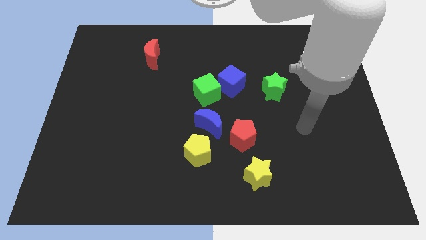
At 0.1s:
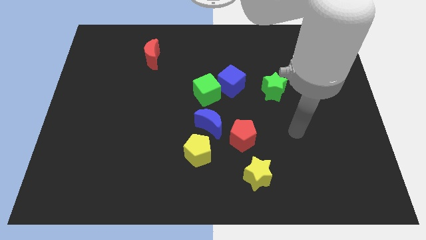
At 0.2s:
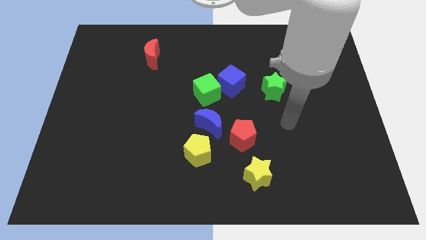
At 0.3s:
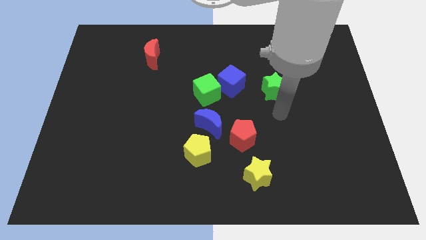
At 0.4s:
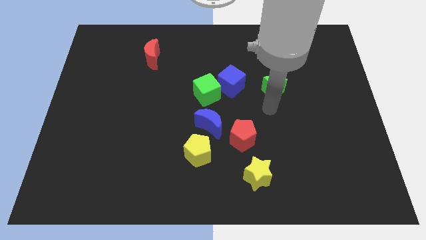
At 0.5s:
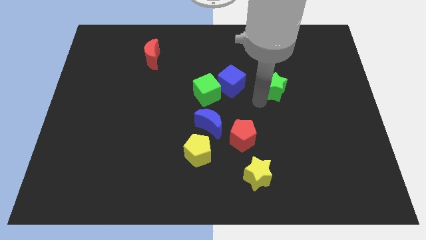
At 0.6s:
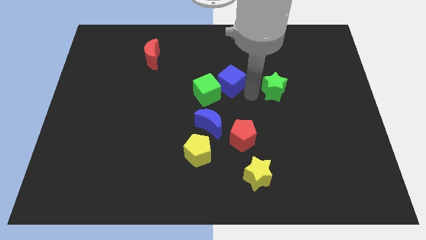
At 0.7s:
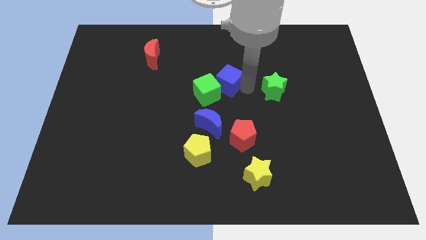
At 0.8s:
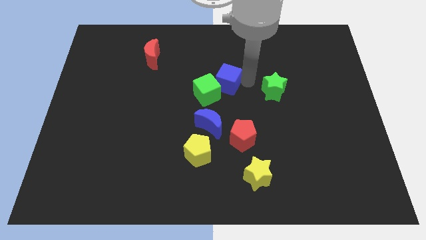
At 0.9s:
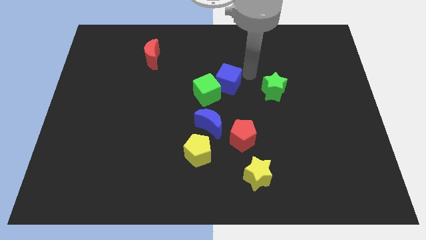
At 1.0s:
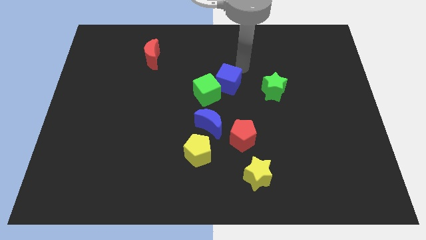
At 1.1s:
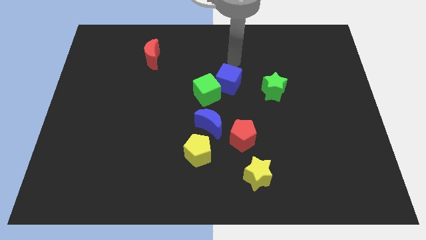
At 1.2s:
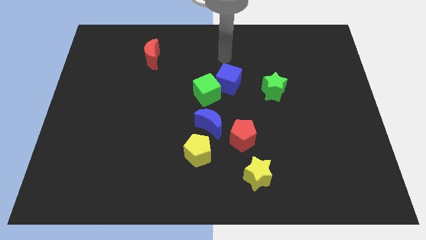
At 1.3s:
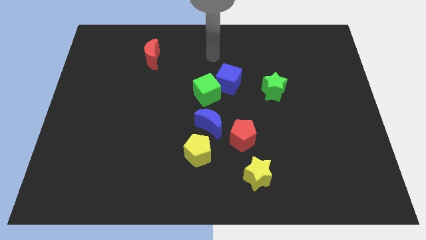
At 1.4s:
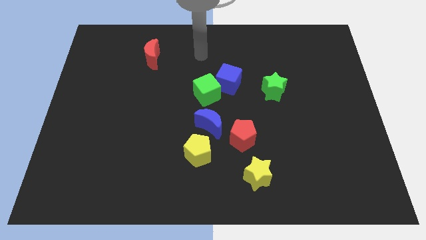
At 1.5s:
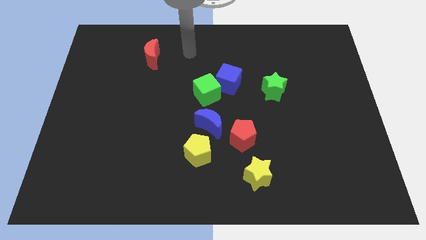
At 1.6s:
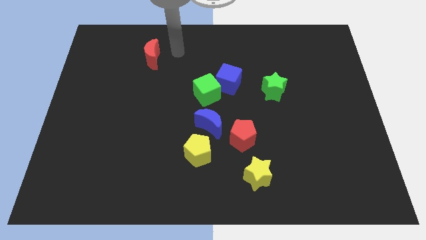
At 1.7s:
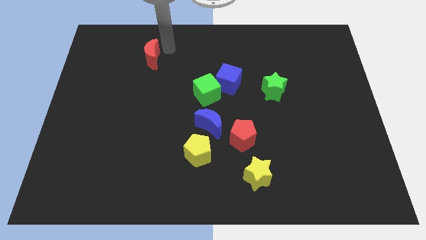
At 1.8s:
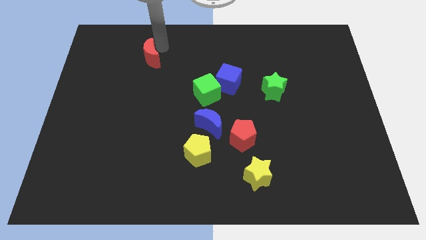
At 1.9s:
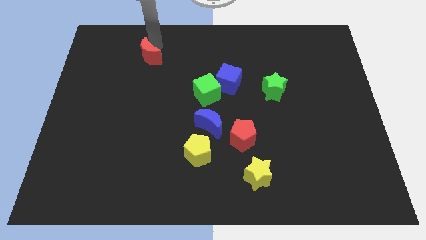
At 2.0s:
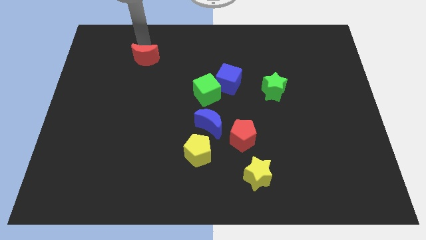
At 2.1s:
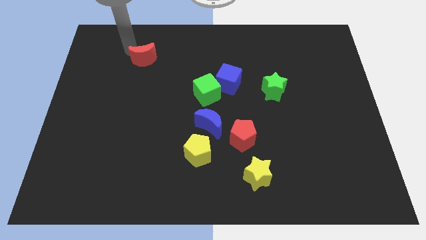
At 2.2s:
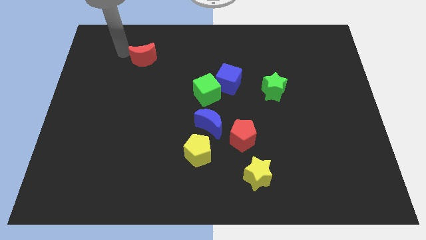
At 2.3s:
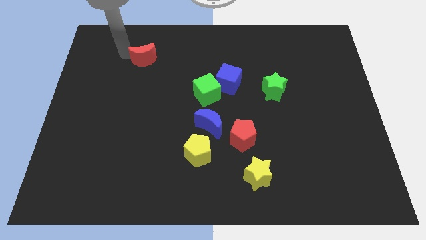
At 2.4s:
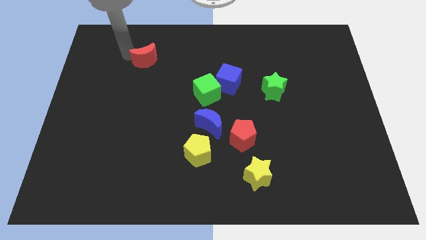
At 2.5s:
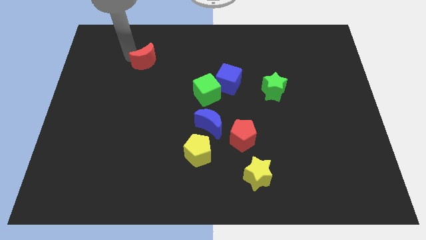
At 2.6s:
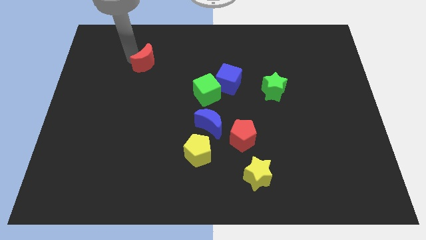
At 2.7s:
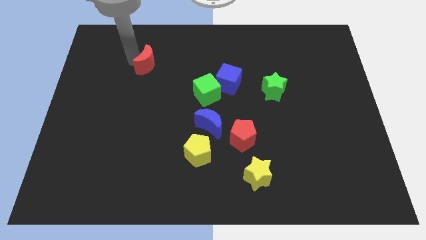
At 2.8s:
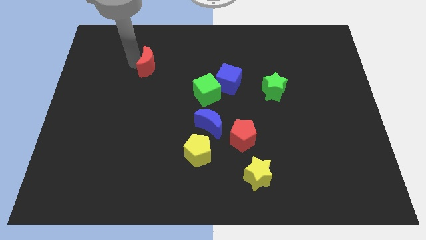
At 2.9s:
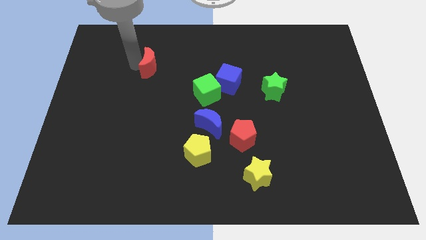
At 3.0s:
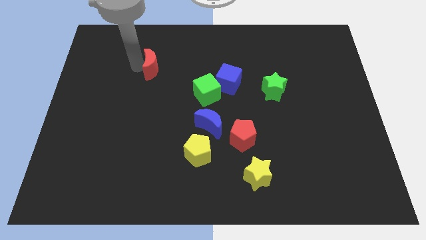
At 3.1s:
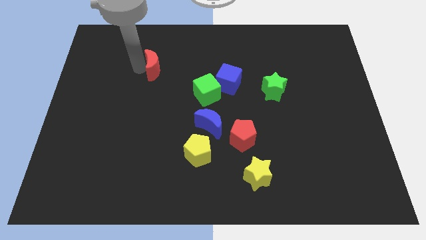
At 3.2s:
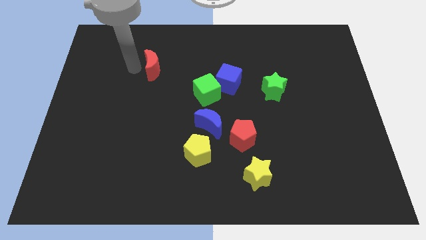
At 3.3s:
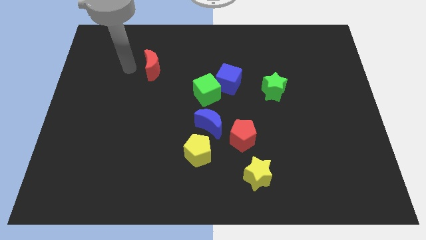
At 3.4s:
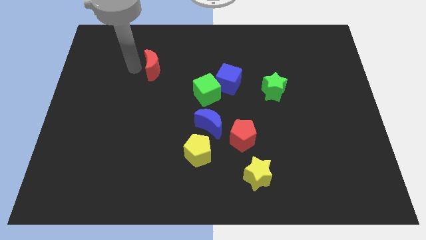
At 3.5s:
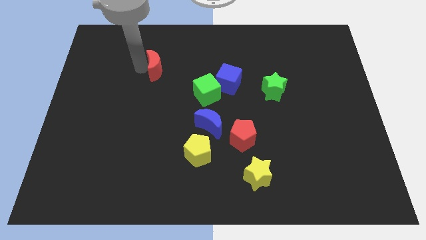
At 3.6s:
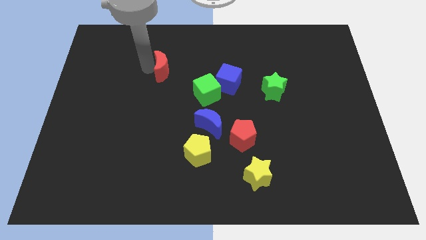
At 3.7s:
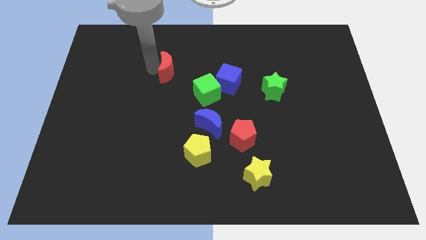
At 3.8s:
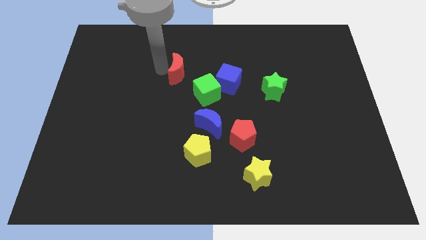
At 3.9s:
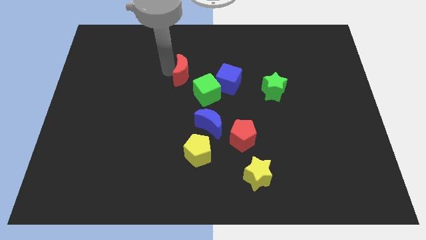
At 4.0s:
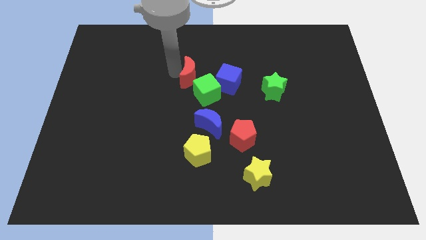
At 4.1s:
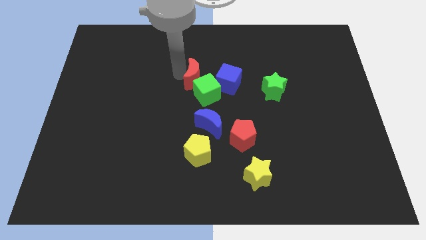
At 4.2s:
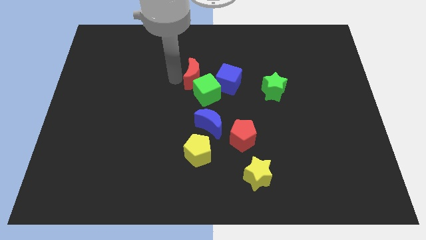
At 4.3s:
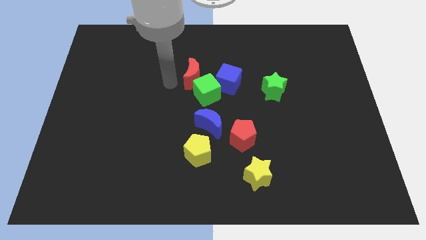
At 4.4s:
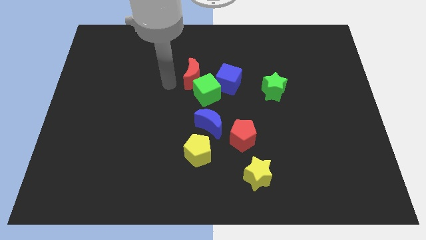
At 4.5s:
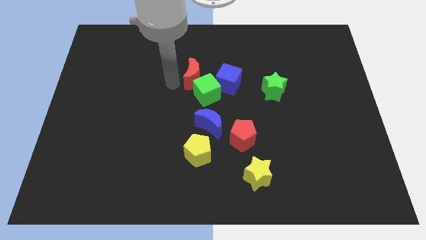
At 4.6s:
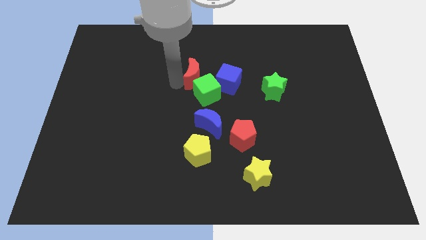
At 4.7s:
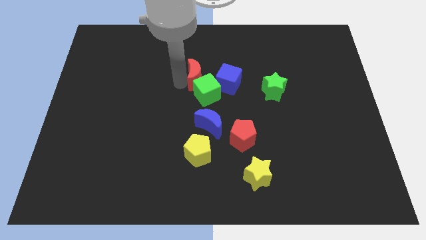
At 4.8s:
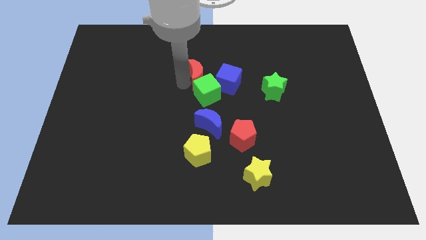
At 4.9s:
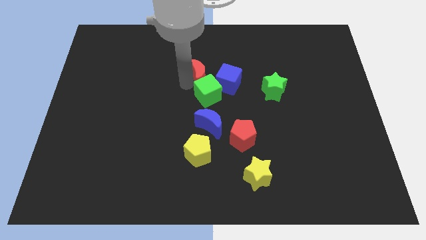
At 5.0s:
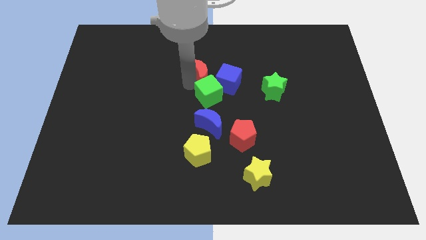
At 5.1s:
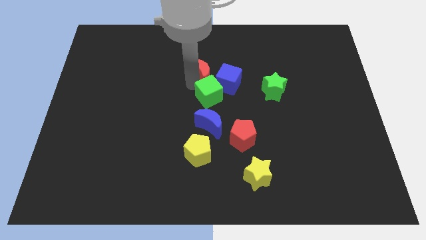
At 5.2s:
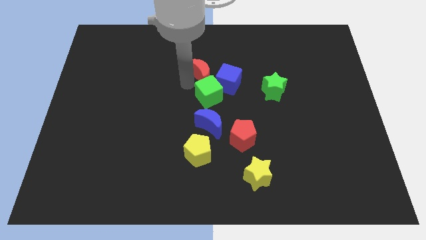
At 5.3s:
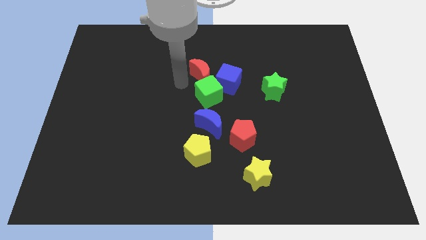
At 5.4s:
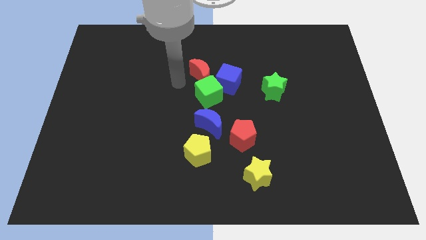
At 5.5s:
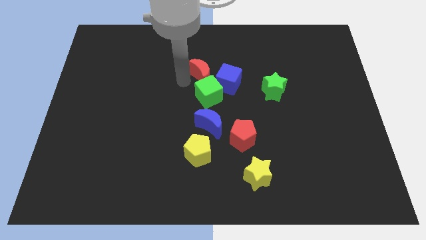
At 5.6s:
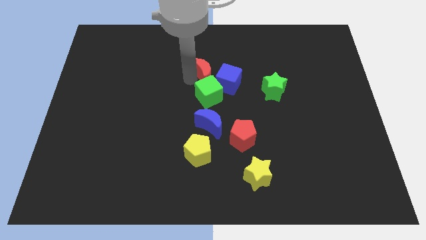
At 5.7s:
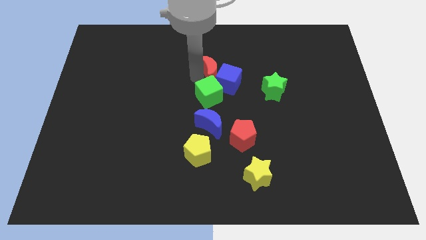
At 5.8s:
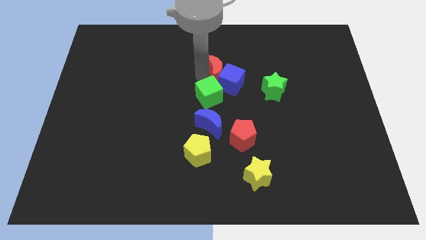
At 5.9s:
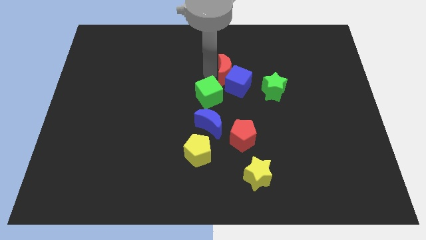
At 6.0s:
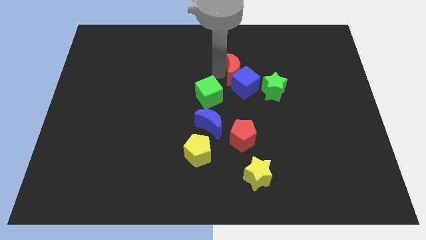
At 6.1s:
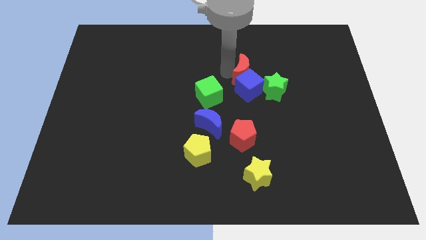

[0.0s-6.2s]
slide the red moon to the top right of the blue cube

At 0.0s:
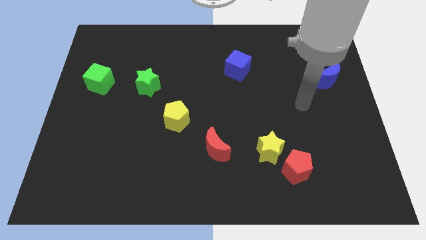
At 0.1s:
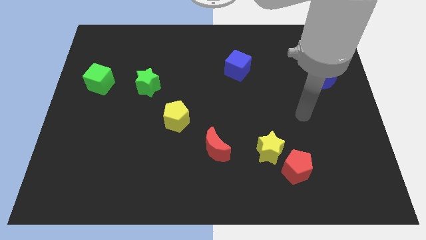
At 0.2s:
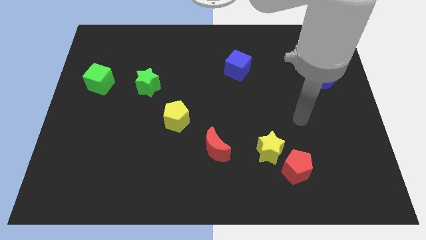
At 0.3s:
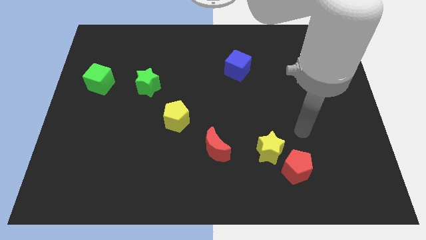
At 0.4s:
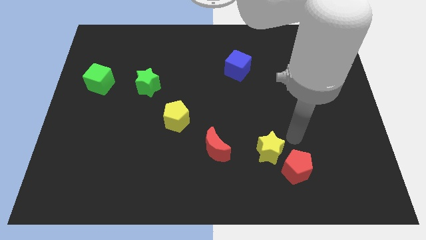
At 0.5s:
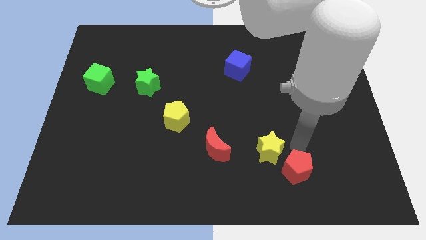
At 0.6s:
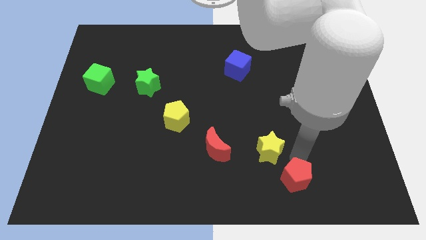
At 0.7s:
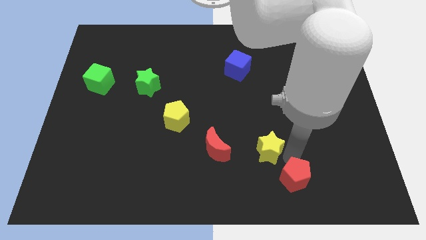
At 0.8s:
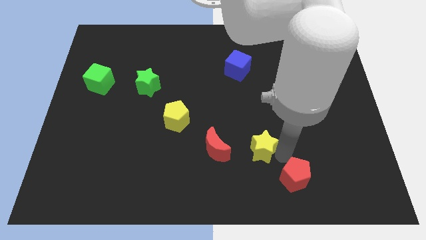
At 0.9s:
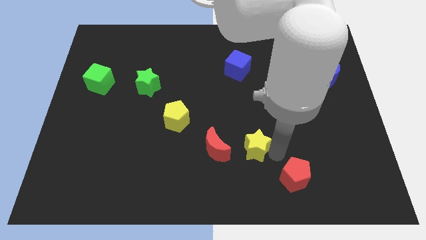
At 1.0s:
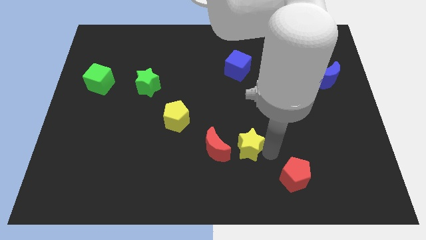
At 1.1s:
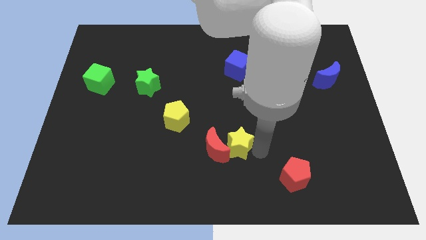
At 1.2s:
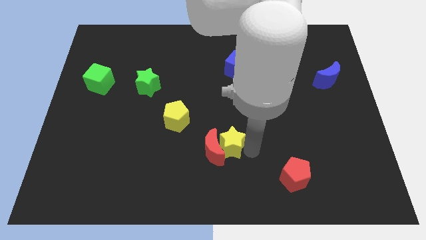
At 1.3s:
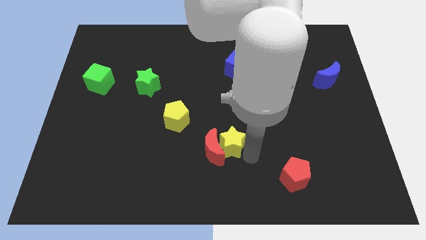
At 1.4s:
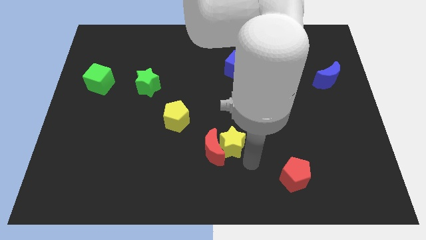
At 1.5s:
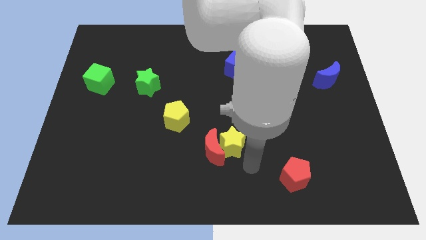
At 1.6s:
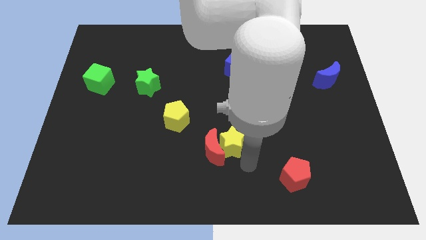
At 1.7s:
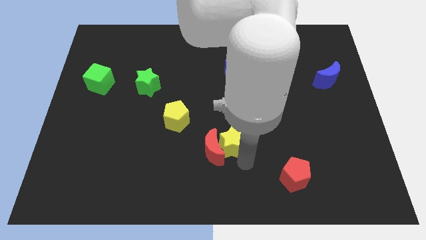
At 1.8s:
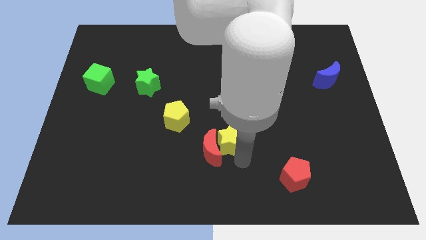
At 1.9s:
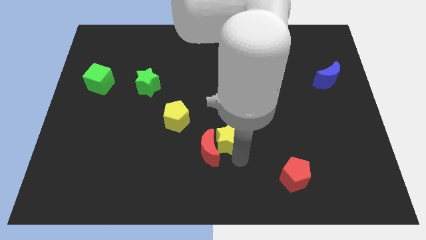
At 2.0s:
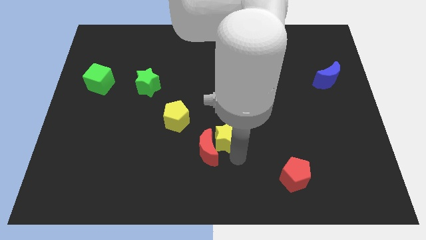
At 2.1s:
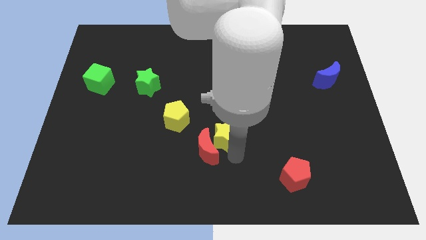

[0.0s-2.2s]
push the yellow star diagonally down and to the right of the yellow pentagon
